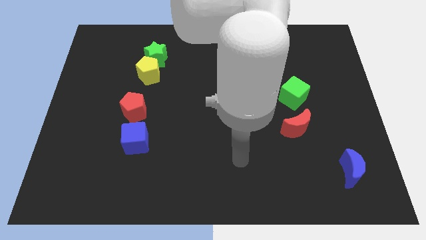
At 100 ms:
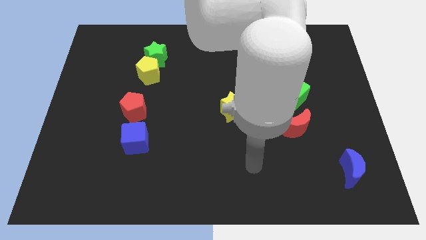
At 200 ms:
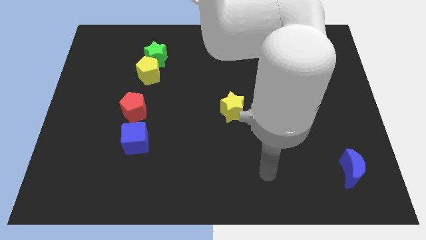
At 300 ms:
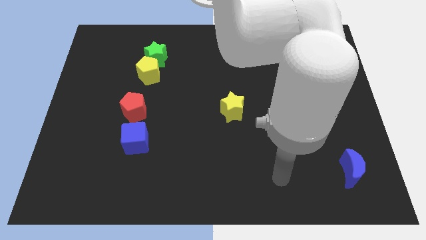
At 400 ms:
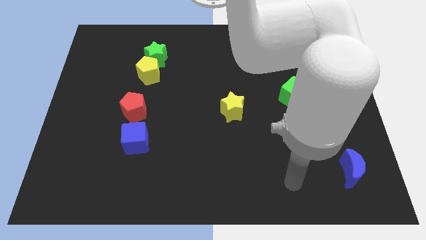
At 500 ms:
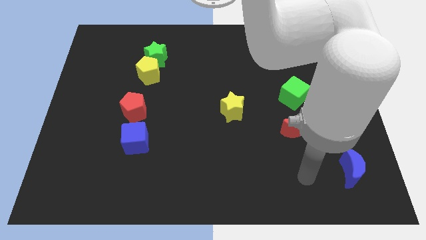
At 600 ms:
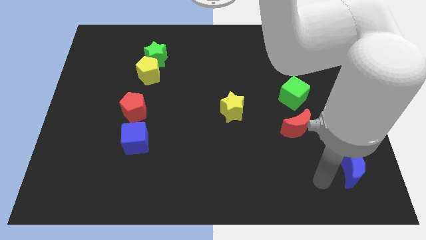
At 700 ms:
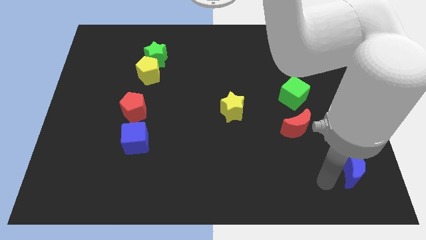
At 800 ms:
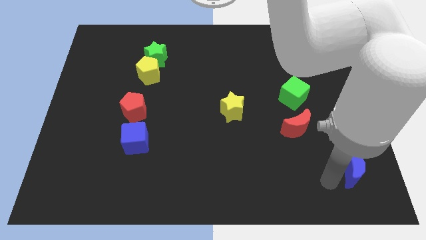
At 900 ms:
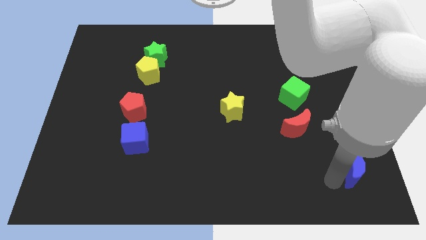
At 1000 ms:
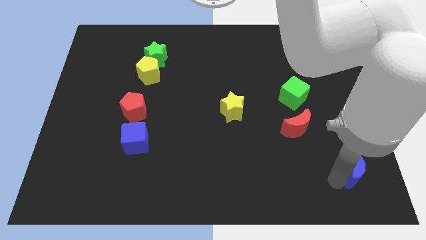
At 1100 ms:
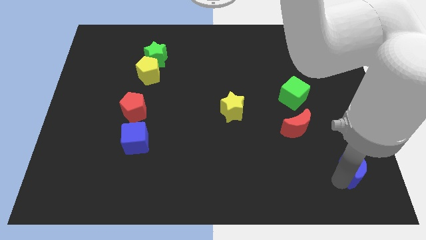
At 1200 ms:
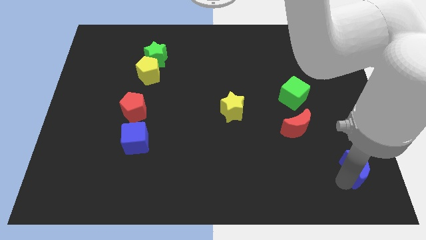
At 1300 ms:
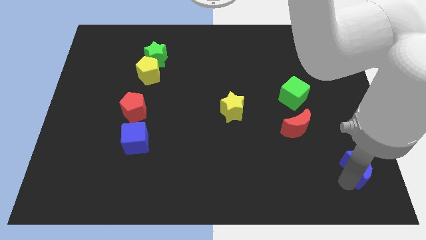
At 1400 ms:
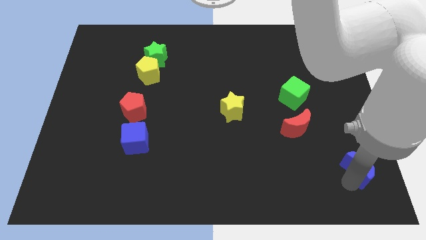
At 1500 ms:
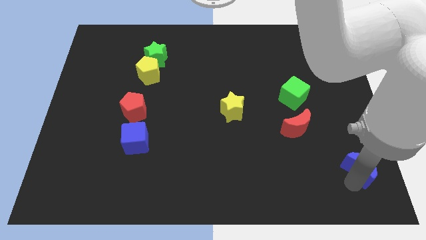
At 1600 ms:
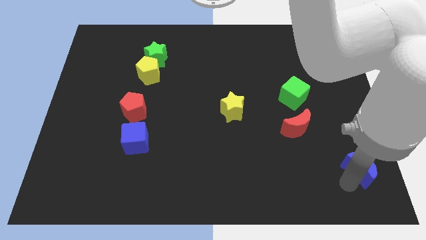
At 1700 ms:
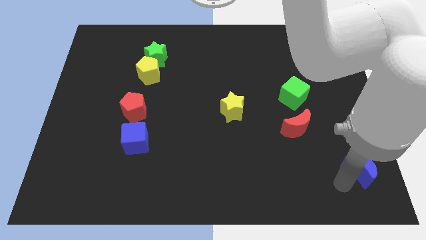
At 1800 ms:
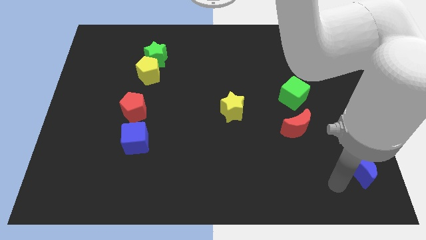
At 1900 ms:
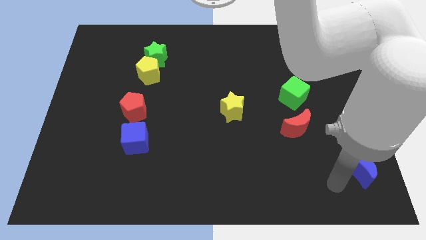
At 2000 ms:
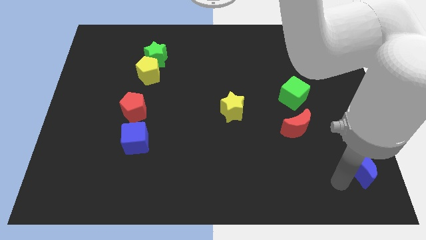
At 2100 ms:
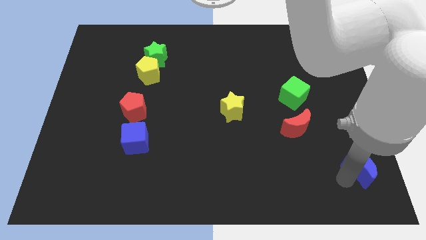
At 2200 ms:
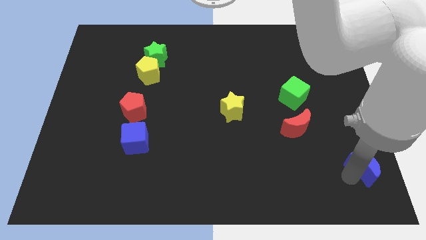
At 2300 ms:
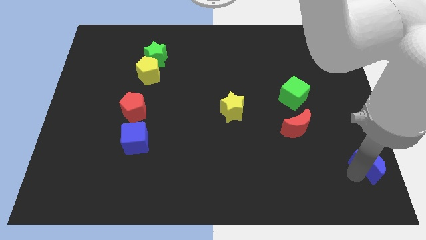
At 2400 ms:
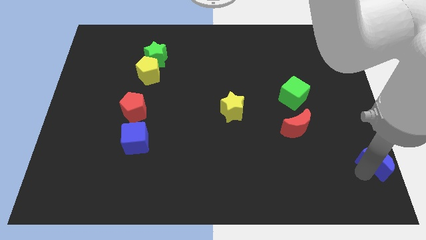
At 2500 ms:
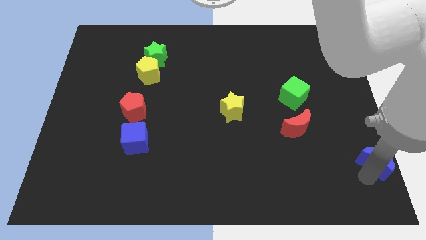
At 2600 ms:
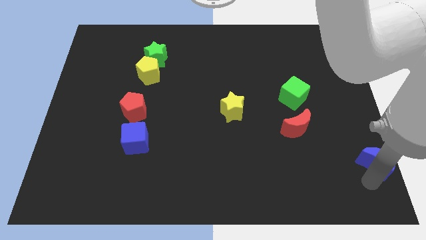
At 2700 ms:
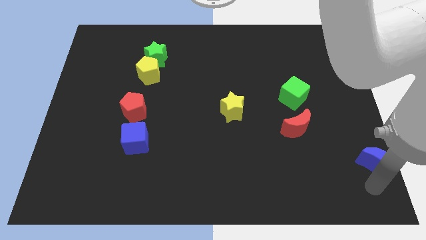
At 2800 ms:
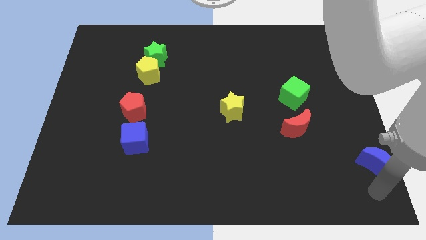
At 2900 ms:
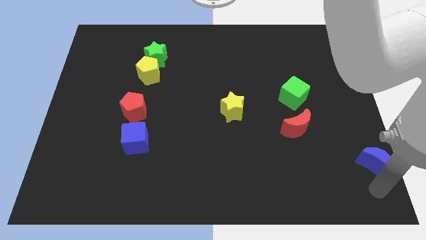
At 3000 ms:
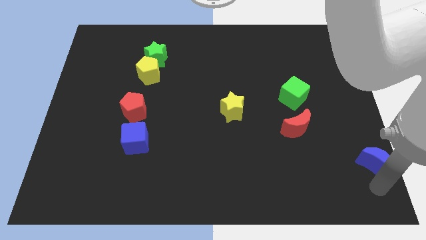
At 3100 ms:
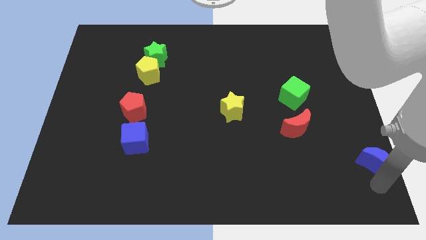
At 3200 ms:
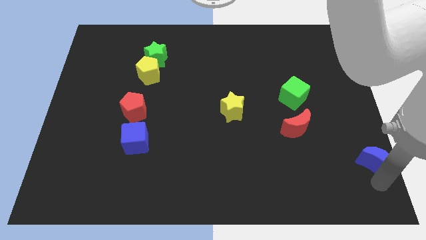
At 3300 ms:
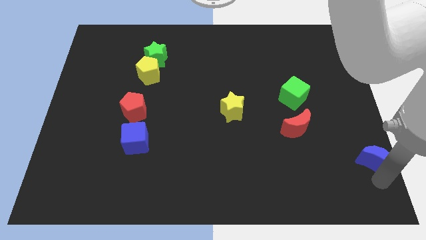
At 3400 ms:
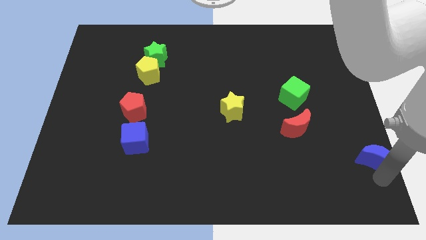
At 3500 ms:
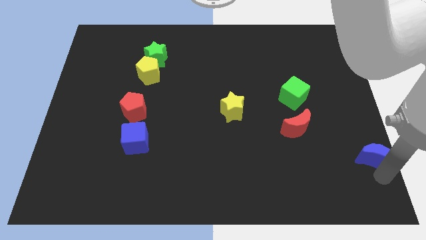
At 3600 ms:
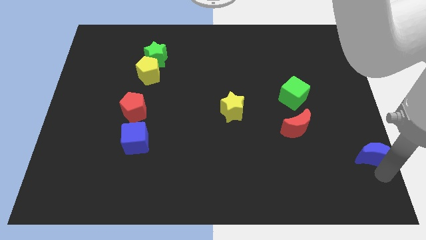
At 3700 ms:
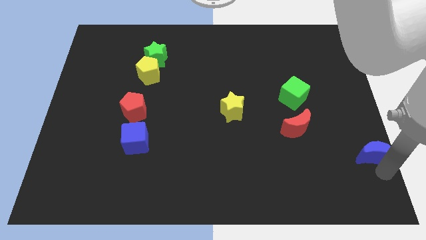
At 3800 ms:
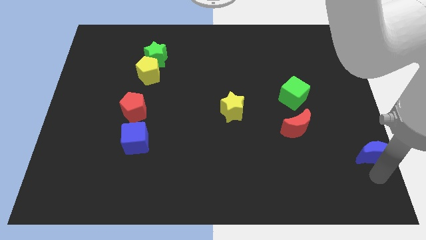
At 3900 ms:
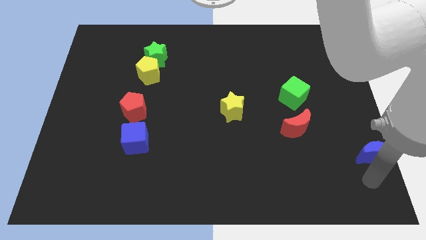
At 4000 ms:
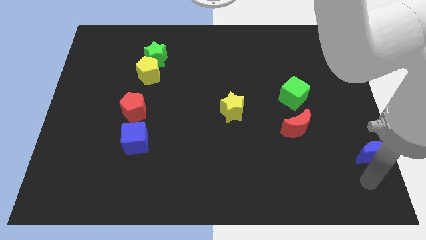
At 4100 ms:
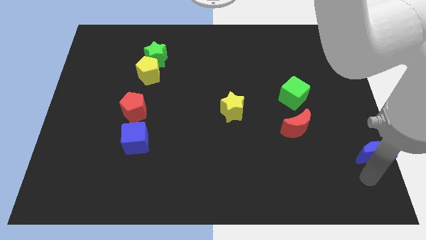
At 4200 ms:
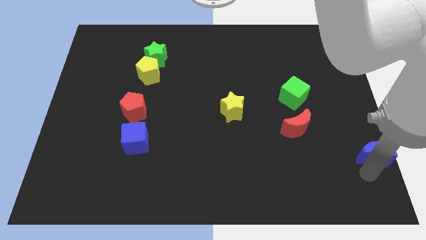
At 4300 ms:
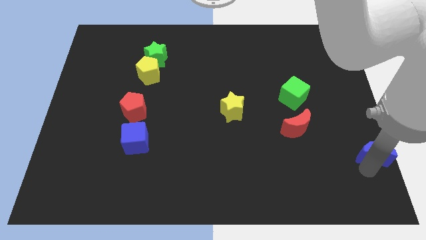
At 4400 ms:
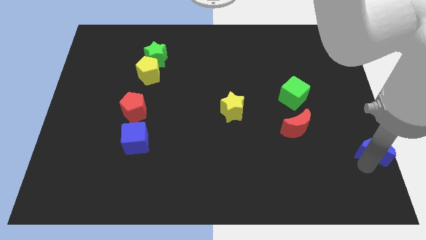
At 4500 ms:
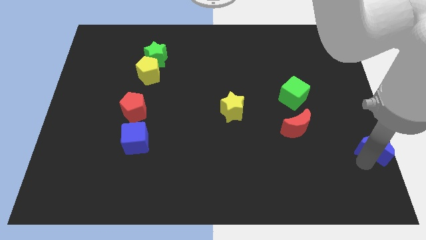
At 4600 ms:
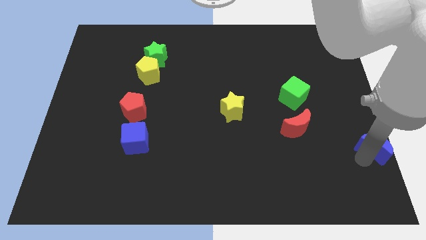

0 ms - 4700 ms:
slide the blue moon to the right side

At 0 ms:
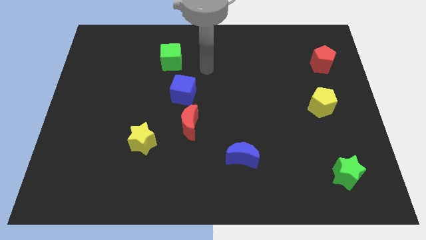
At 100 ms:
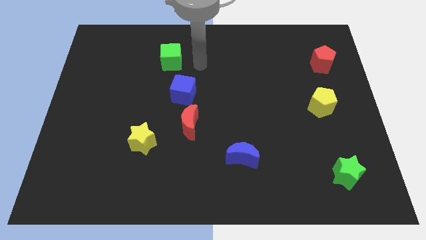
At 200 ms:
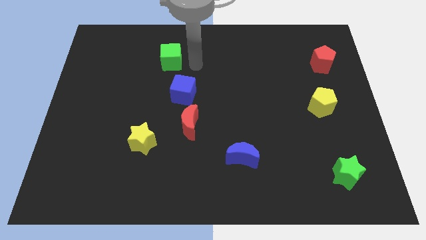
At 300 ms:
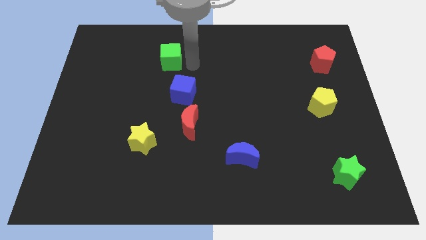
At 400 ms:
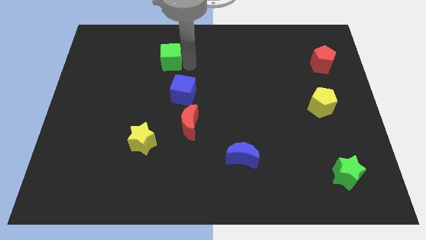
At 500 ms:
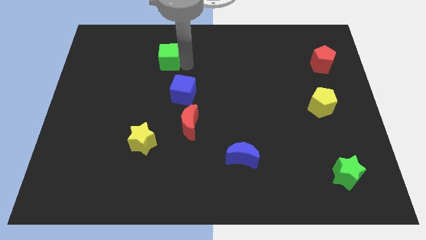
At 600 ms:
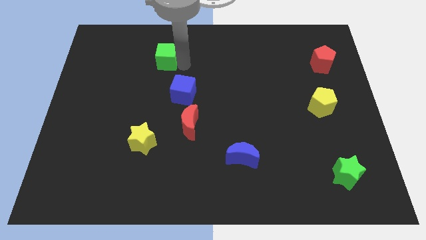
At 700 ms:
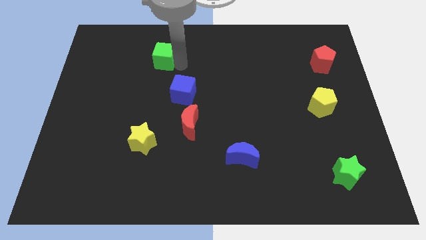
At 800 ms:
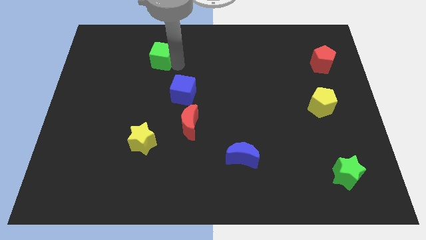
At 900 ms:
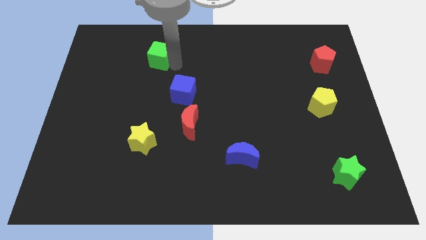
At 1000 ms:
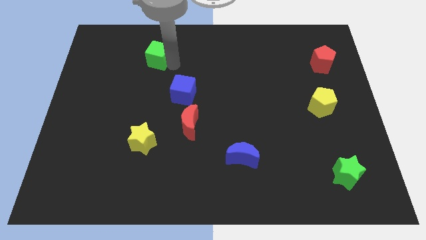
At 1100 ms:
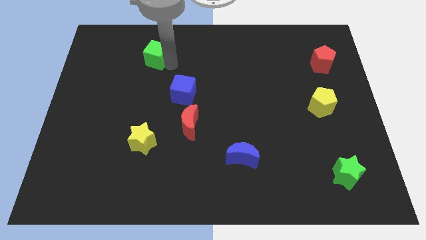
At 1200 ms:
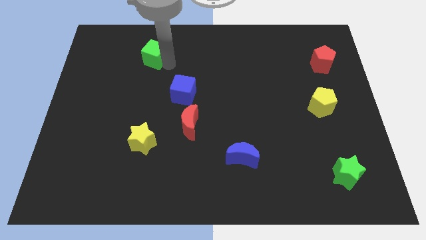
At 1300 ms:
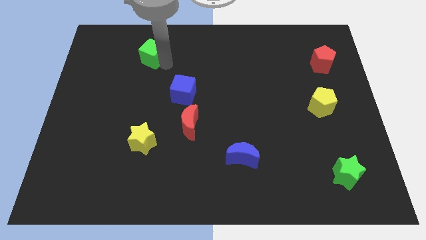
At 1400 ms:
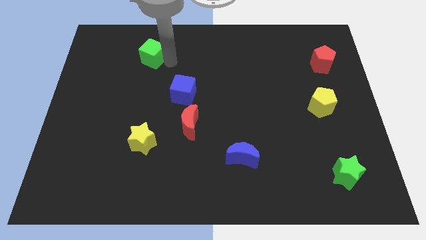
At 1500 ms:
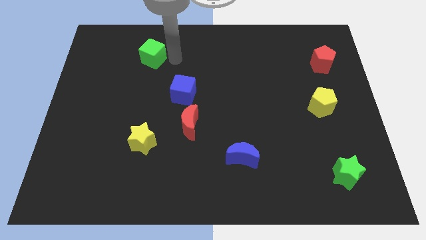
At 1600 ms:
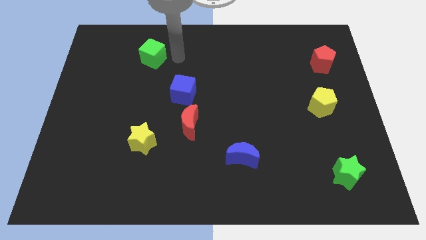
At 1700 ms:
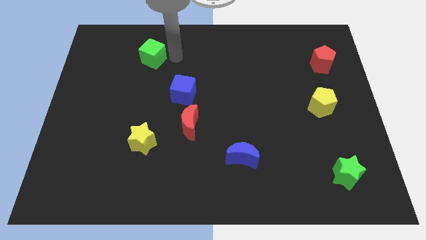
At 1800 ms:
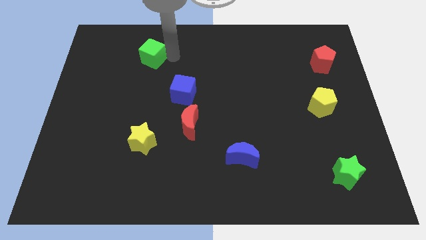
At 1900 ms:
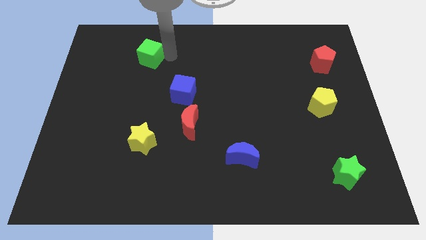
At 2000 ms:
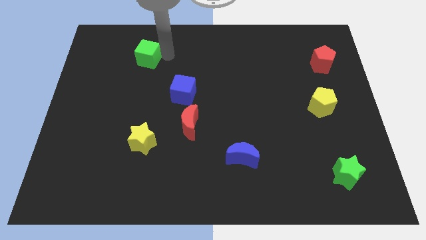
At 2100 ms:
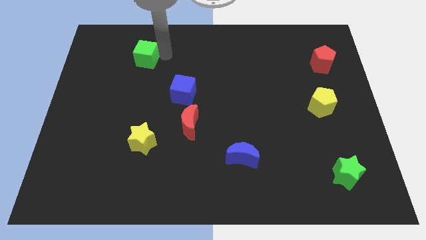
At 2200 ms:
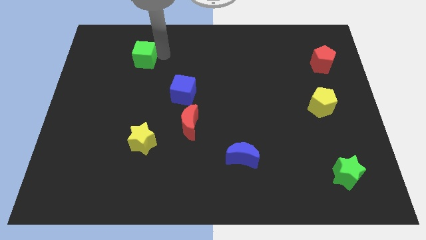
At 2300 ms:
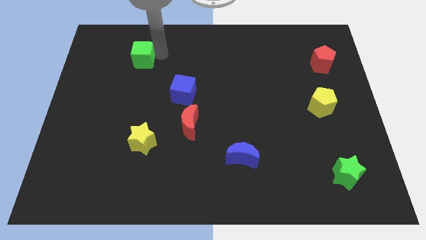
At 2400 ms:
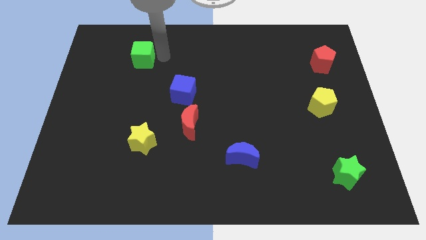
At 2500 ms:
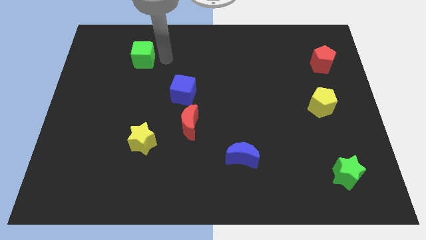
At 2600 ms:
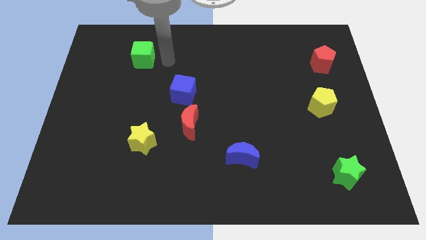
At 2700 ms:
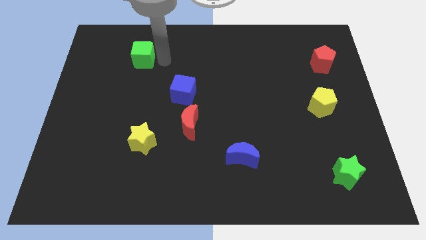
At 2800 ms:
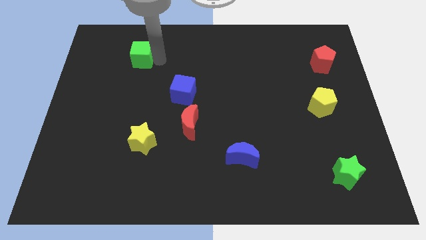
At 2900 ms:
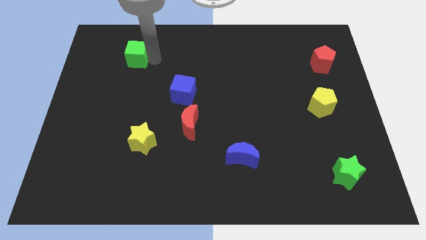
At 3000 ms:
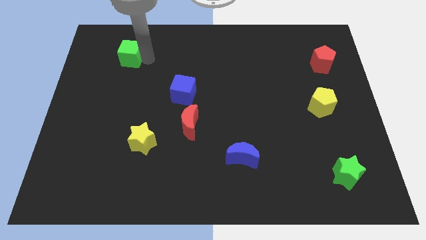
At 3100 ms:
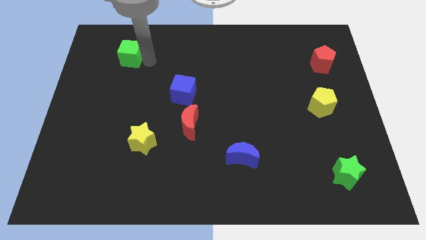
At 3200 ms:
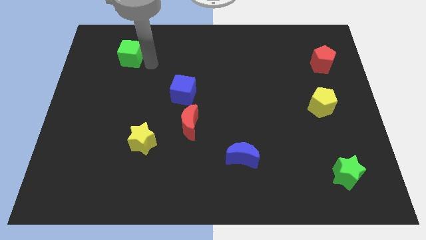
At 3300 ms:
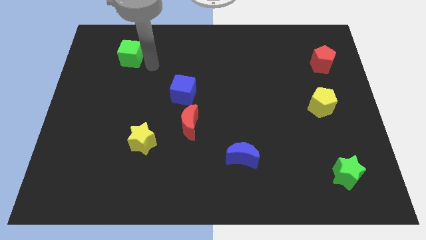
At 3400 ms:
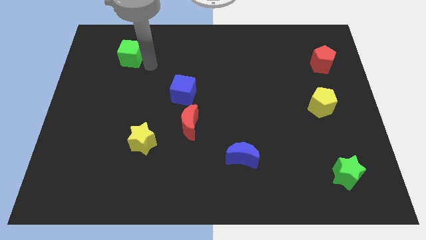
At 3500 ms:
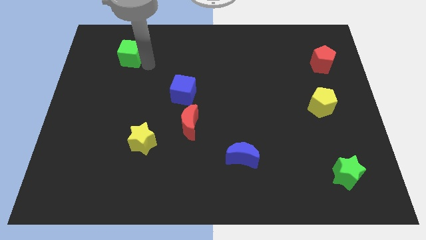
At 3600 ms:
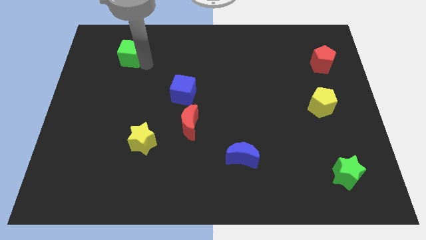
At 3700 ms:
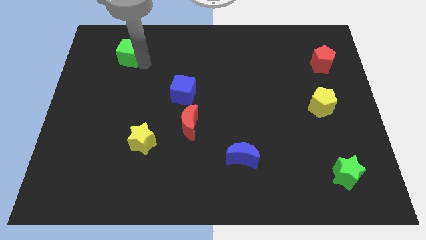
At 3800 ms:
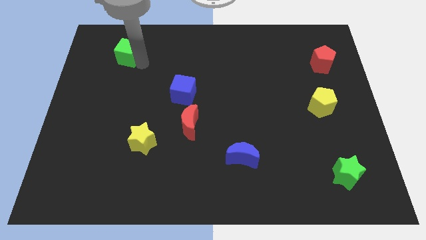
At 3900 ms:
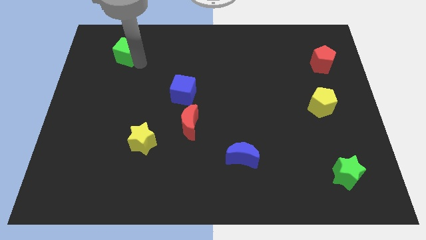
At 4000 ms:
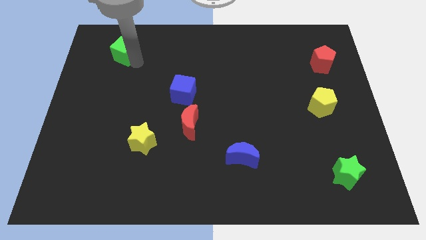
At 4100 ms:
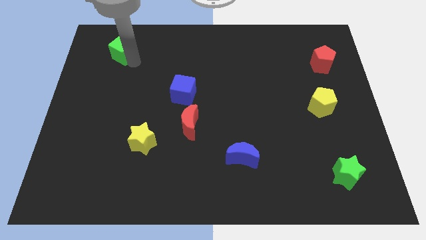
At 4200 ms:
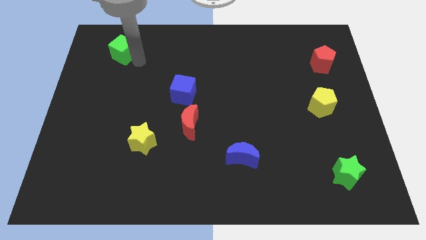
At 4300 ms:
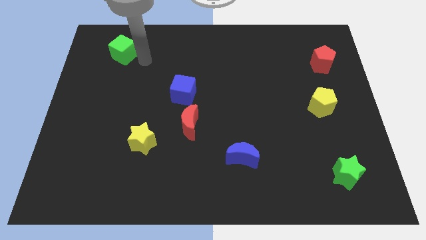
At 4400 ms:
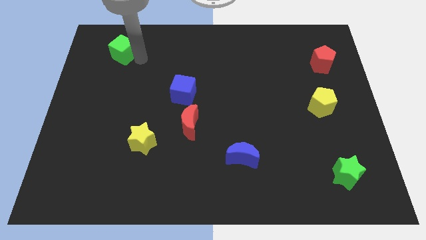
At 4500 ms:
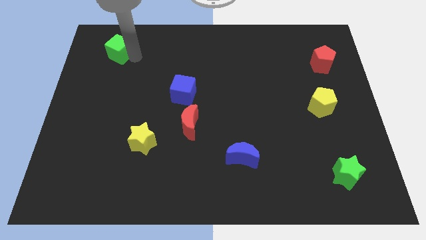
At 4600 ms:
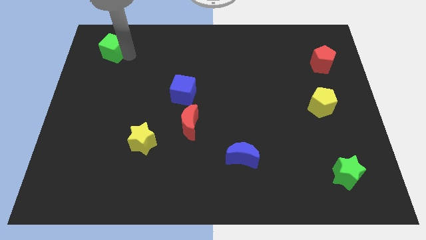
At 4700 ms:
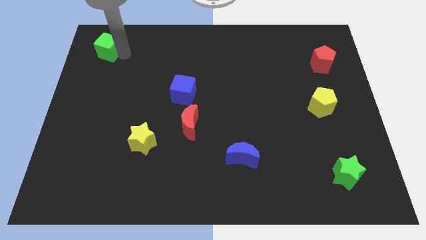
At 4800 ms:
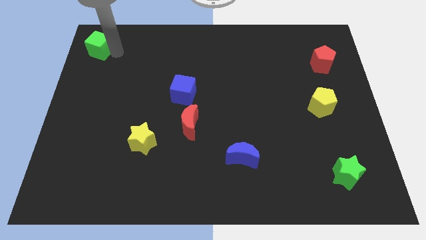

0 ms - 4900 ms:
move the green cube to the top left corner
